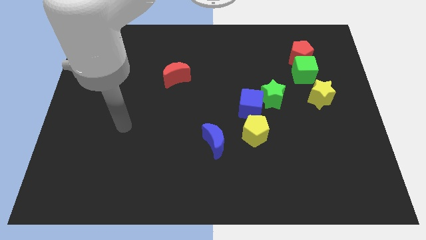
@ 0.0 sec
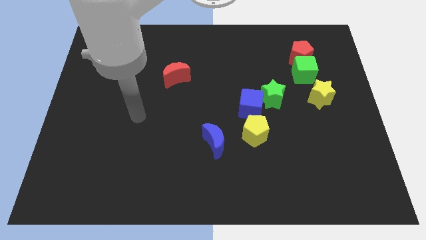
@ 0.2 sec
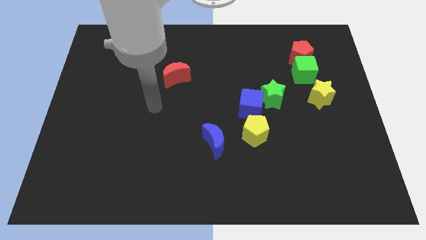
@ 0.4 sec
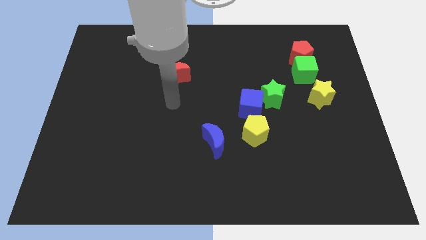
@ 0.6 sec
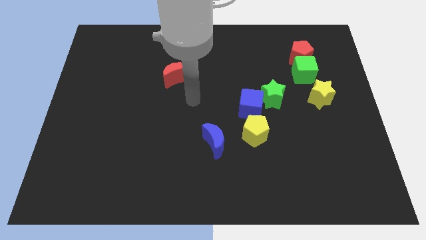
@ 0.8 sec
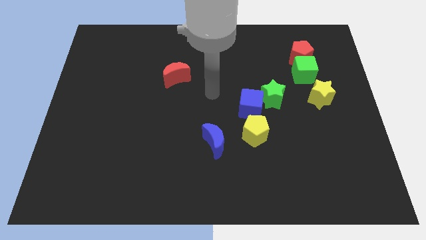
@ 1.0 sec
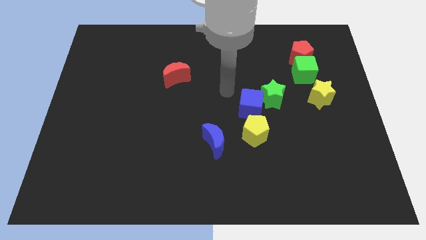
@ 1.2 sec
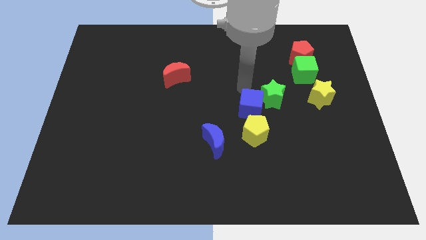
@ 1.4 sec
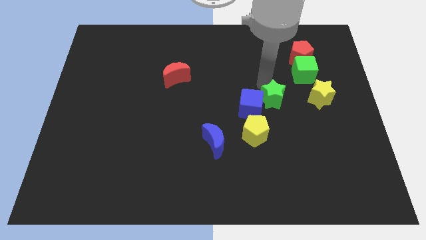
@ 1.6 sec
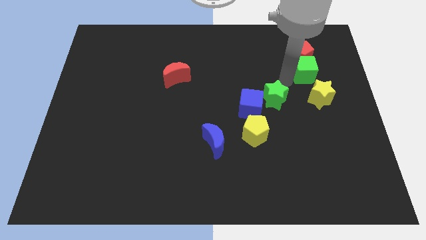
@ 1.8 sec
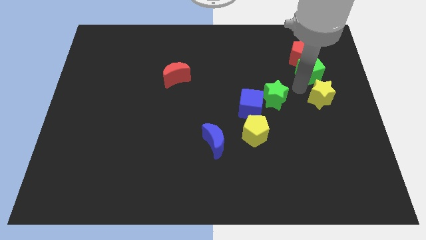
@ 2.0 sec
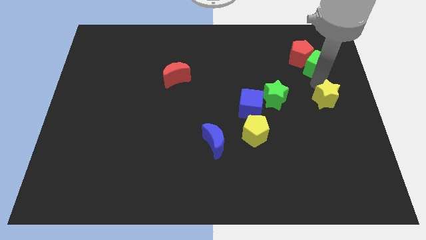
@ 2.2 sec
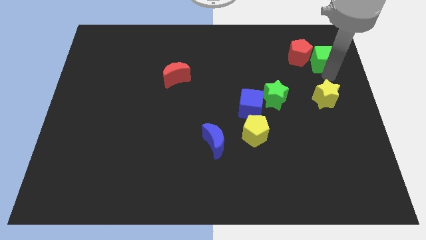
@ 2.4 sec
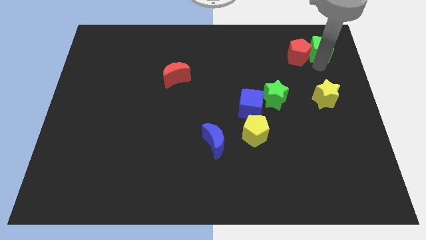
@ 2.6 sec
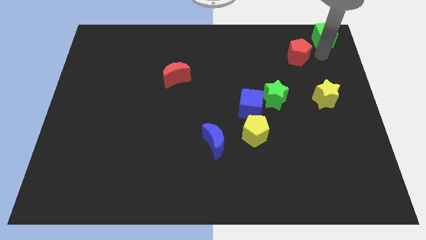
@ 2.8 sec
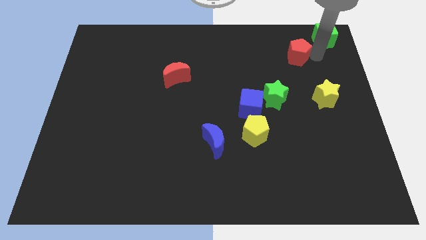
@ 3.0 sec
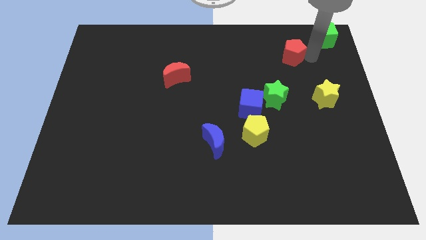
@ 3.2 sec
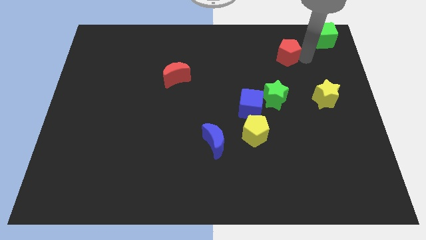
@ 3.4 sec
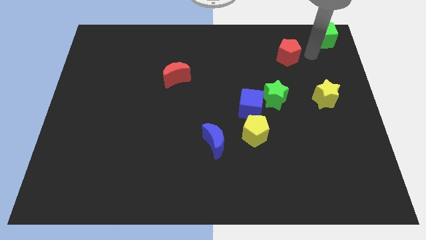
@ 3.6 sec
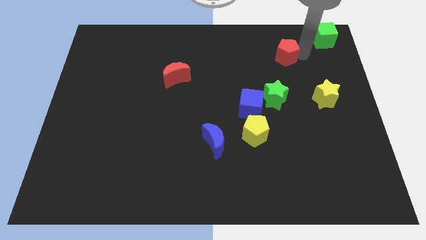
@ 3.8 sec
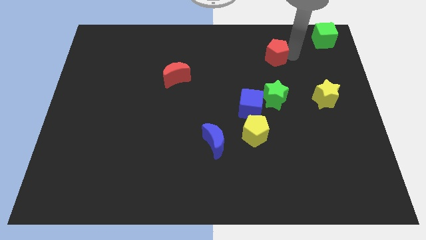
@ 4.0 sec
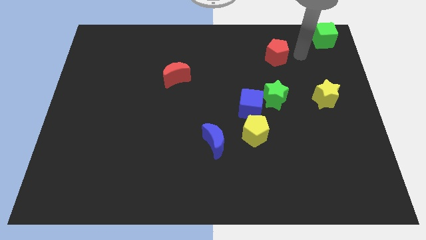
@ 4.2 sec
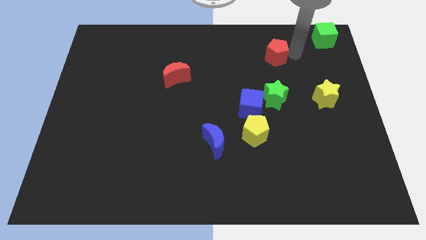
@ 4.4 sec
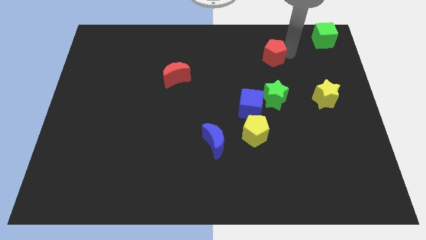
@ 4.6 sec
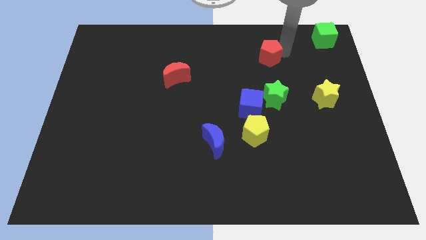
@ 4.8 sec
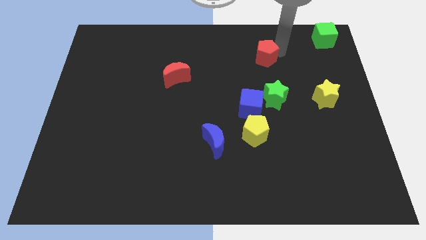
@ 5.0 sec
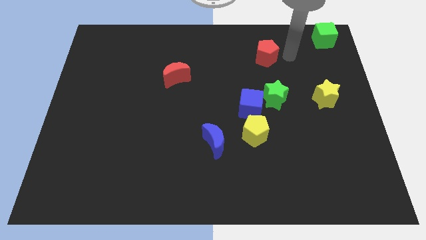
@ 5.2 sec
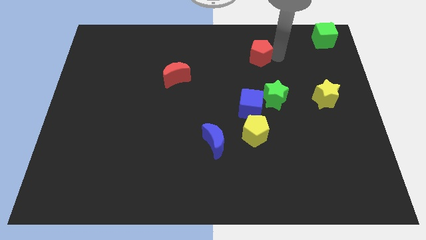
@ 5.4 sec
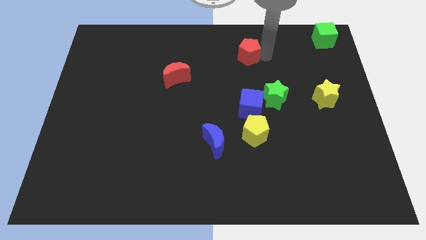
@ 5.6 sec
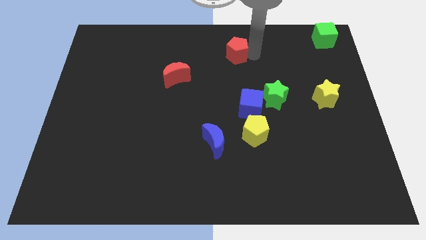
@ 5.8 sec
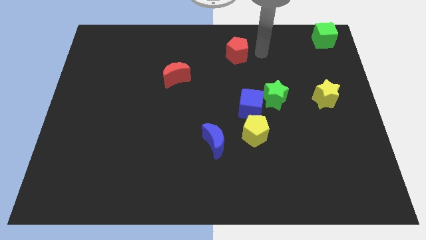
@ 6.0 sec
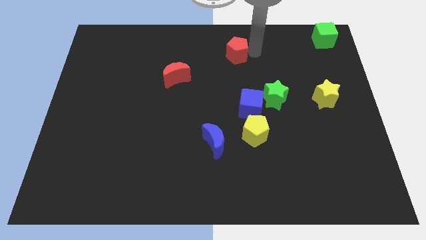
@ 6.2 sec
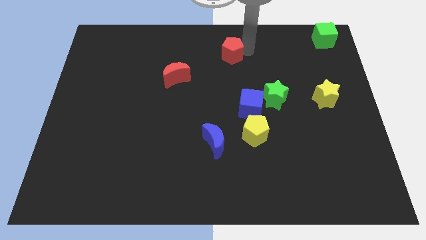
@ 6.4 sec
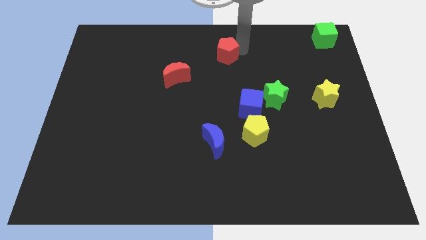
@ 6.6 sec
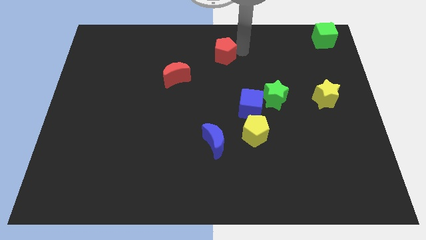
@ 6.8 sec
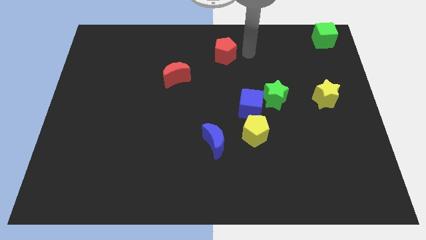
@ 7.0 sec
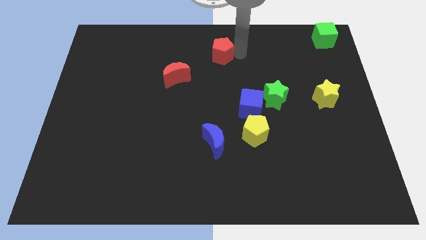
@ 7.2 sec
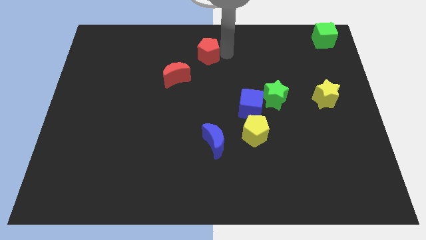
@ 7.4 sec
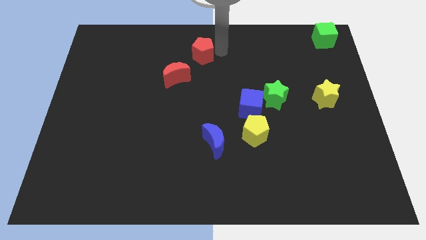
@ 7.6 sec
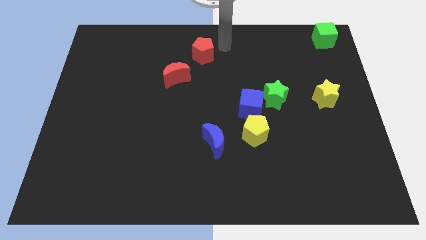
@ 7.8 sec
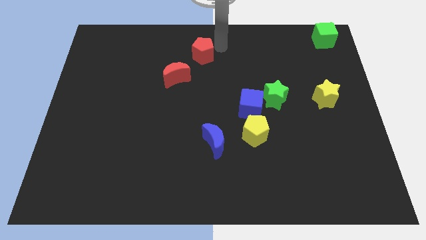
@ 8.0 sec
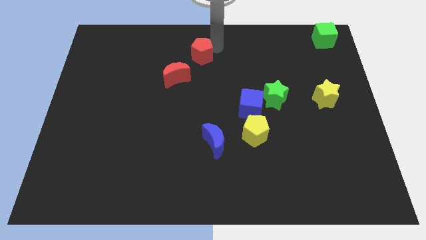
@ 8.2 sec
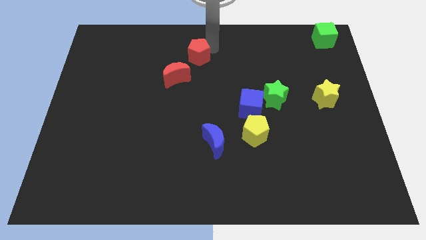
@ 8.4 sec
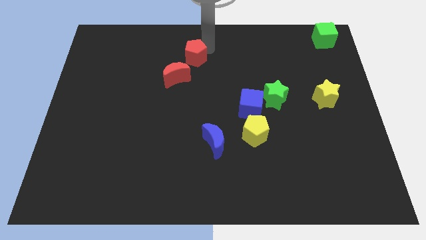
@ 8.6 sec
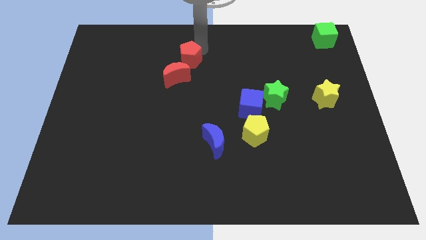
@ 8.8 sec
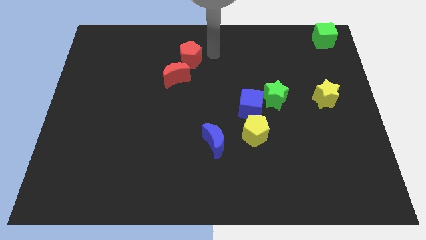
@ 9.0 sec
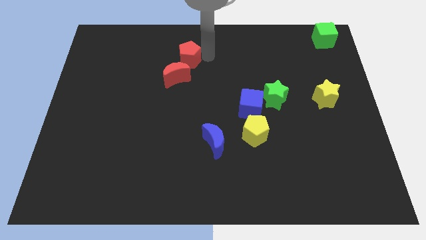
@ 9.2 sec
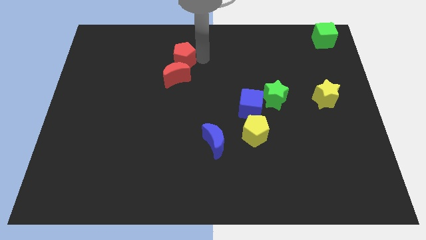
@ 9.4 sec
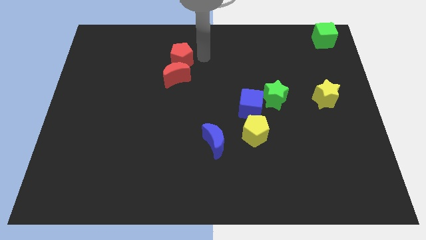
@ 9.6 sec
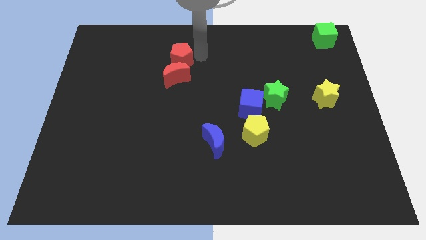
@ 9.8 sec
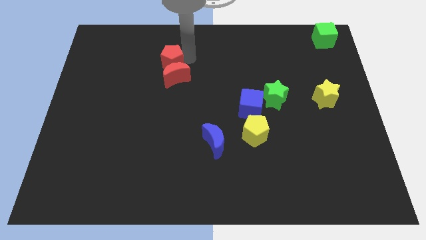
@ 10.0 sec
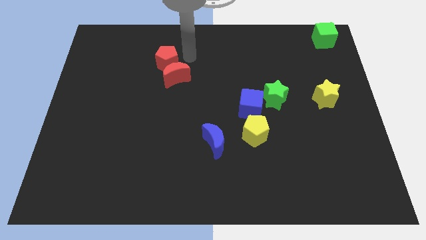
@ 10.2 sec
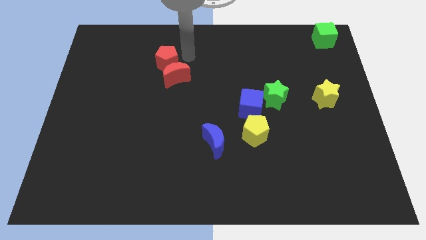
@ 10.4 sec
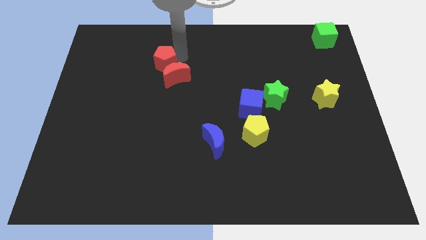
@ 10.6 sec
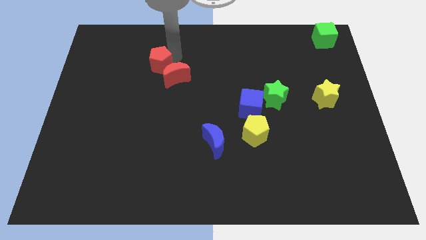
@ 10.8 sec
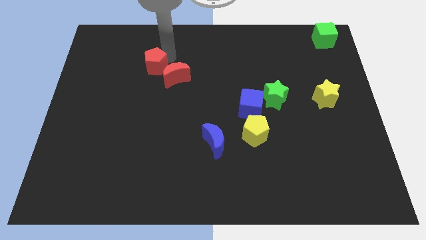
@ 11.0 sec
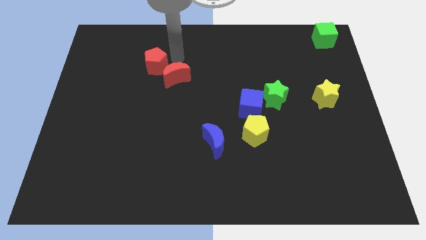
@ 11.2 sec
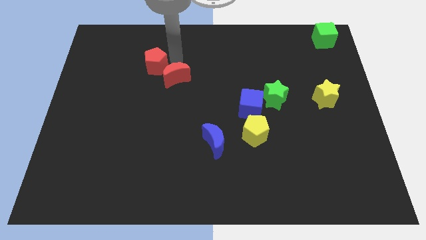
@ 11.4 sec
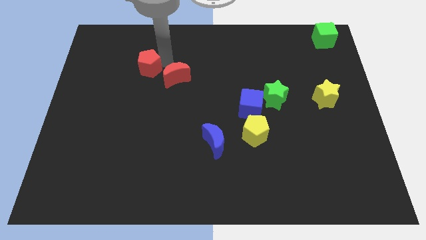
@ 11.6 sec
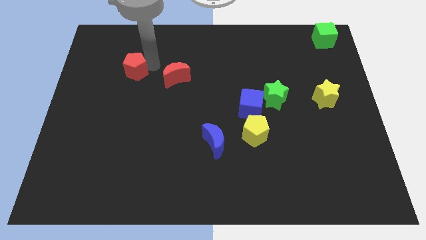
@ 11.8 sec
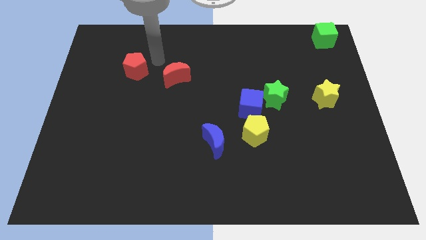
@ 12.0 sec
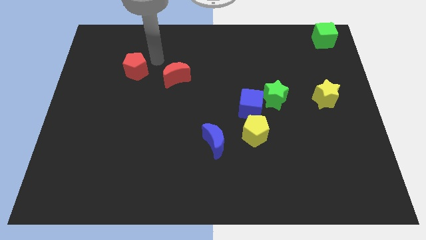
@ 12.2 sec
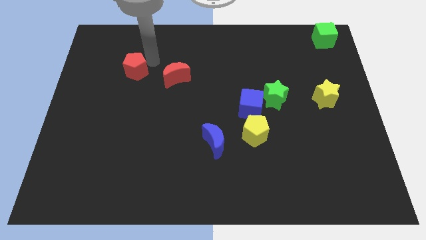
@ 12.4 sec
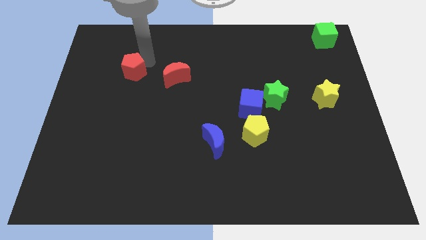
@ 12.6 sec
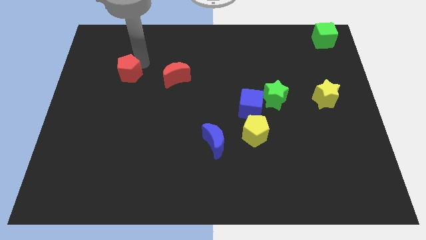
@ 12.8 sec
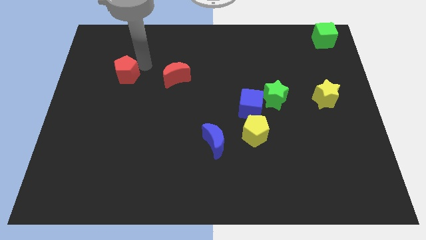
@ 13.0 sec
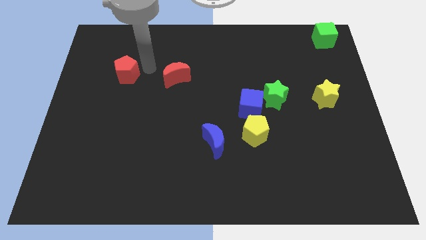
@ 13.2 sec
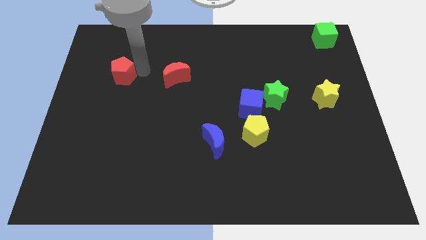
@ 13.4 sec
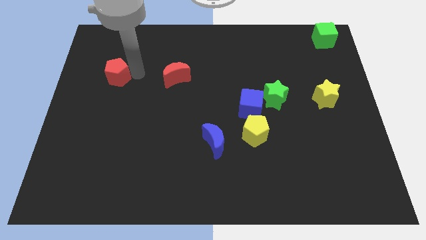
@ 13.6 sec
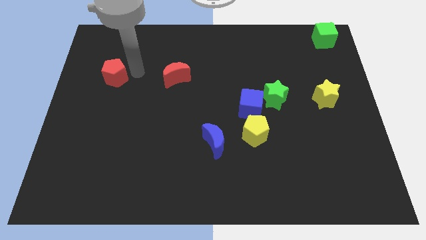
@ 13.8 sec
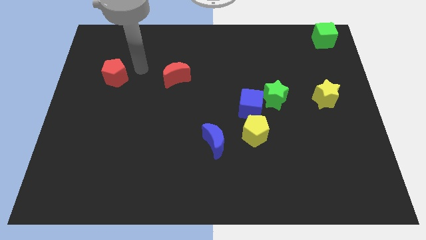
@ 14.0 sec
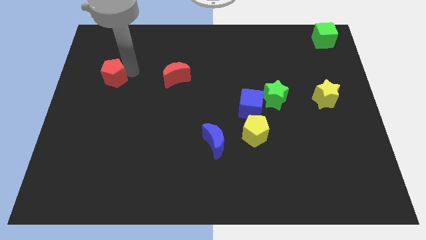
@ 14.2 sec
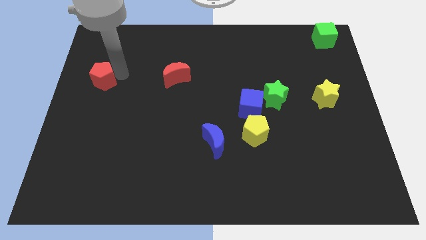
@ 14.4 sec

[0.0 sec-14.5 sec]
slide the red pentagon to the center left
